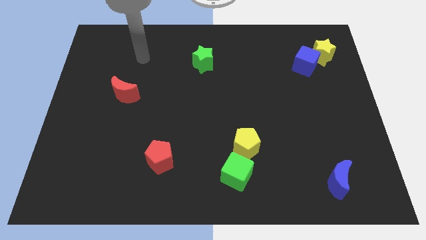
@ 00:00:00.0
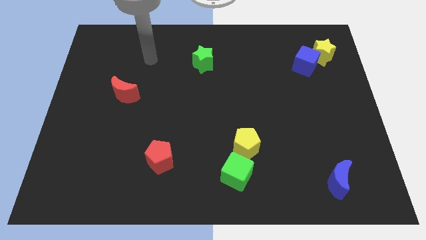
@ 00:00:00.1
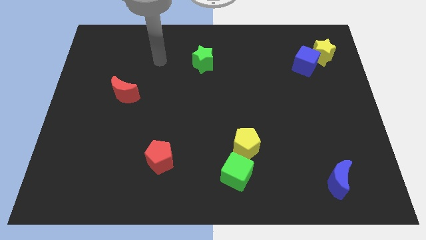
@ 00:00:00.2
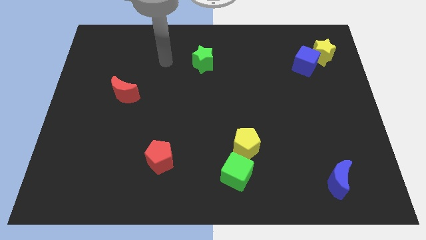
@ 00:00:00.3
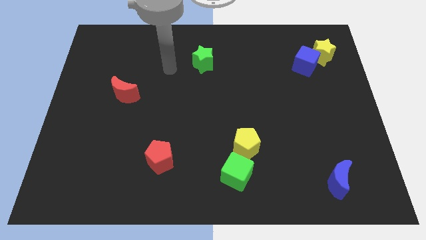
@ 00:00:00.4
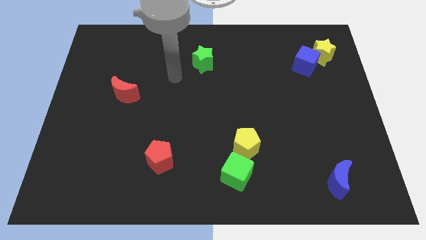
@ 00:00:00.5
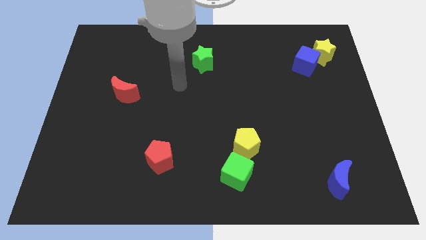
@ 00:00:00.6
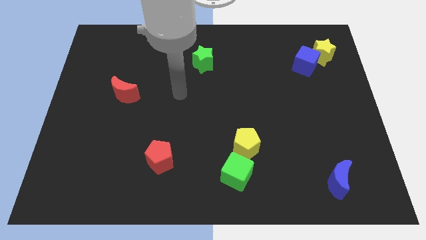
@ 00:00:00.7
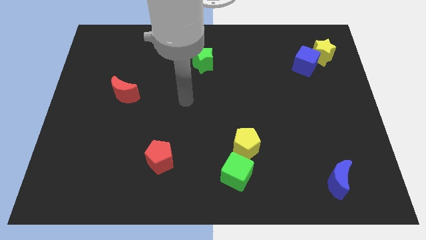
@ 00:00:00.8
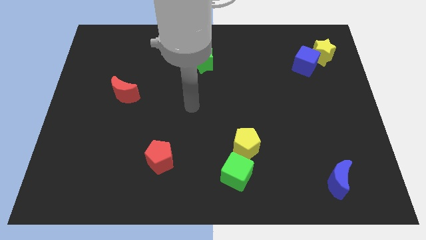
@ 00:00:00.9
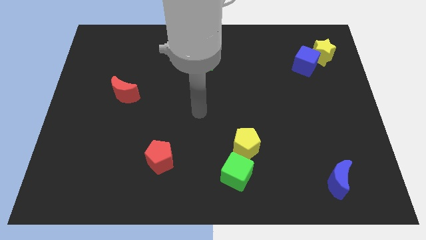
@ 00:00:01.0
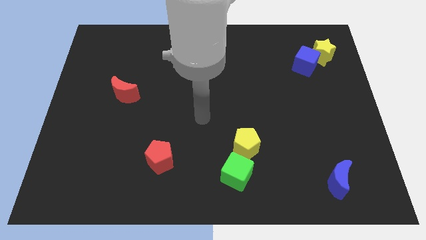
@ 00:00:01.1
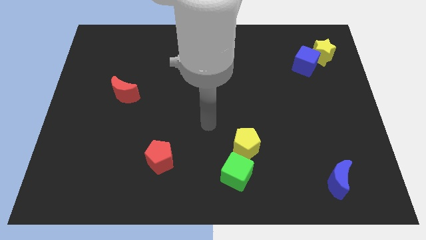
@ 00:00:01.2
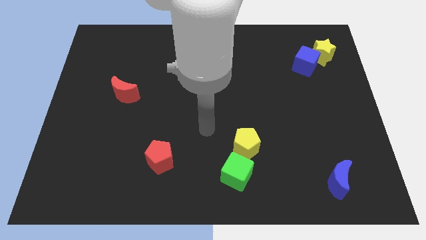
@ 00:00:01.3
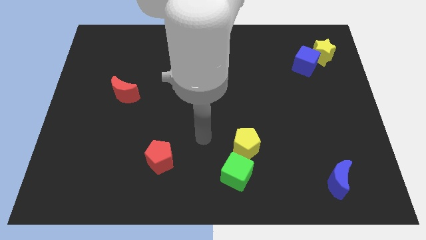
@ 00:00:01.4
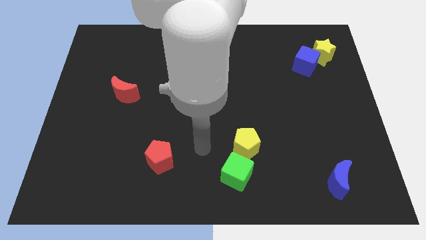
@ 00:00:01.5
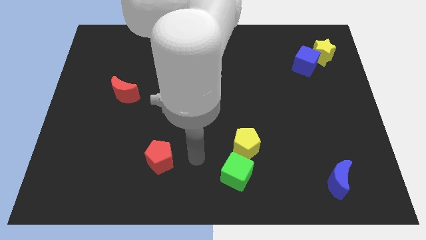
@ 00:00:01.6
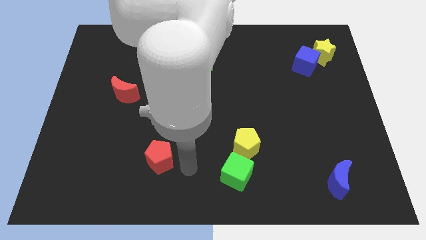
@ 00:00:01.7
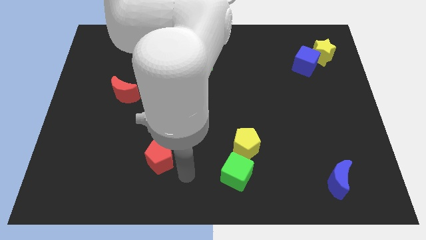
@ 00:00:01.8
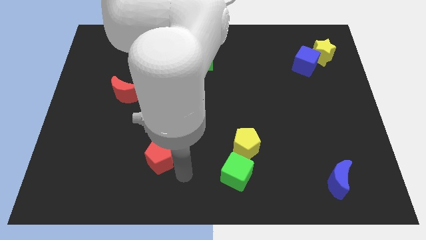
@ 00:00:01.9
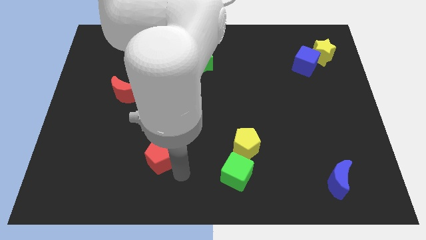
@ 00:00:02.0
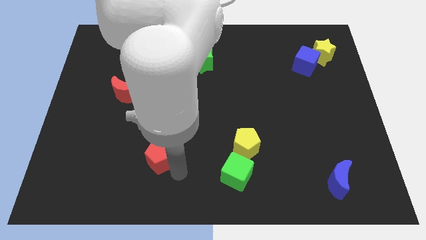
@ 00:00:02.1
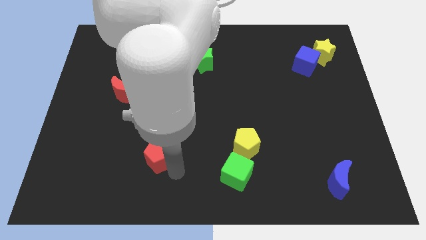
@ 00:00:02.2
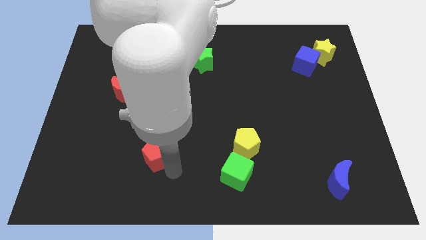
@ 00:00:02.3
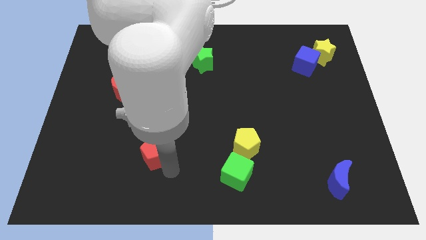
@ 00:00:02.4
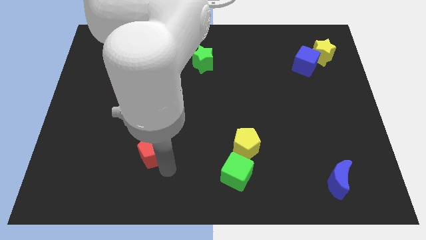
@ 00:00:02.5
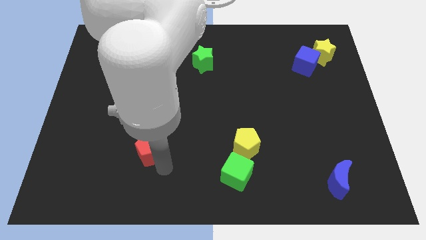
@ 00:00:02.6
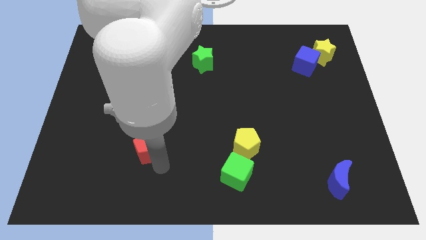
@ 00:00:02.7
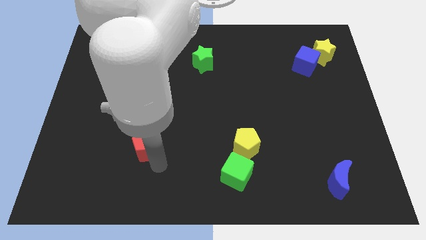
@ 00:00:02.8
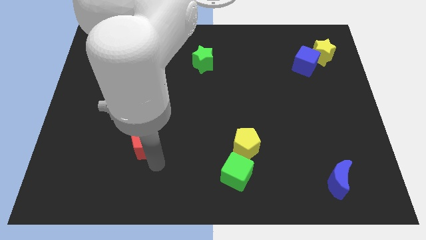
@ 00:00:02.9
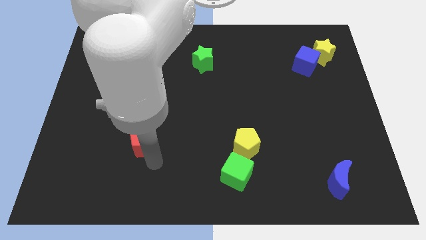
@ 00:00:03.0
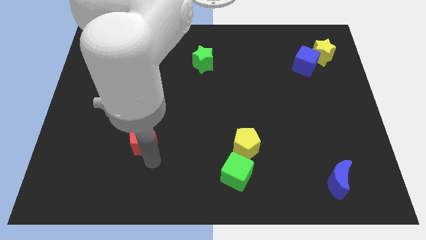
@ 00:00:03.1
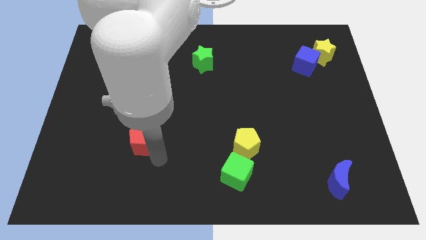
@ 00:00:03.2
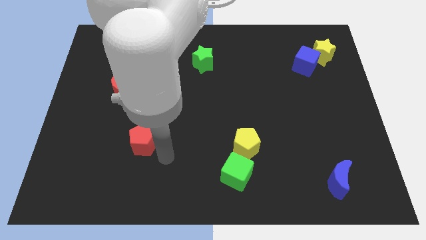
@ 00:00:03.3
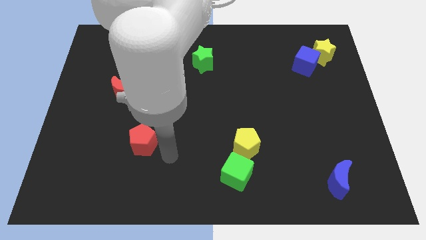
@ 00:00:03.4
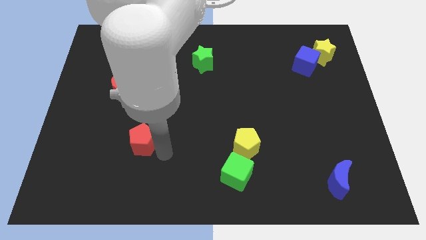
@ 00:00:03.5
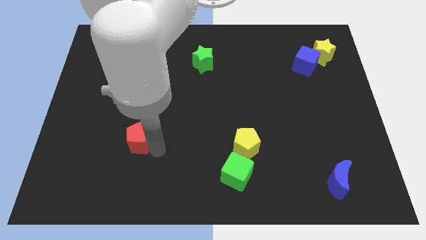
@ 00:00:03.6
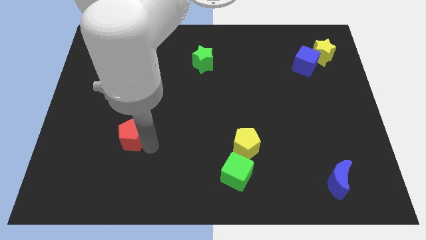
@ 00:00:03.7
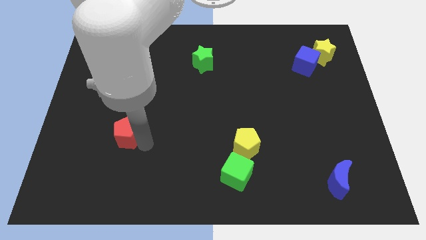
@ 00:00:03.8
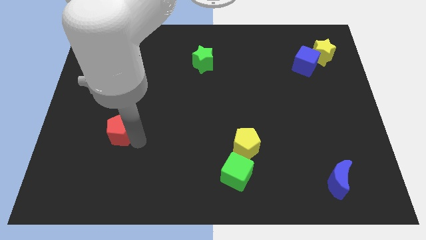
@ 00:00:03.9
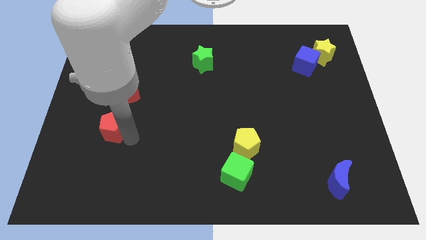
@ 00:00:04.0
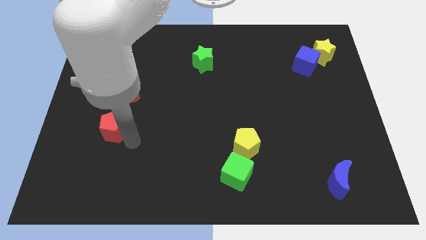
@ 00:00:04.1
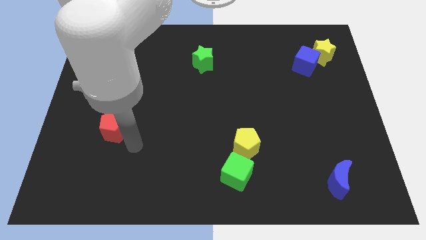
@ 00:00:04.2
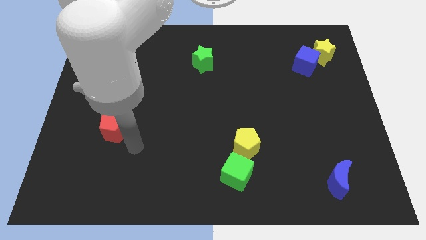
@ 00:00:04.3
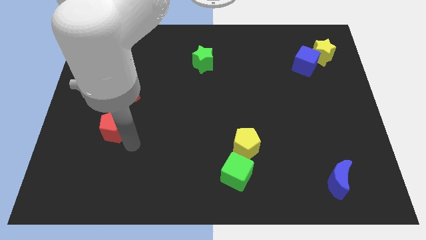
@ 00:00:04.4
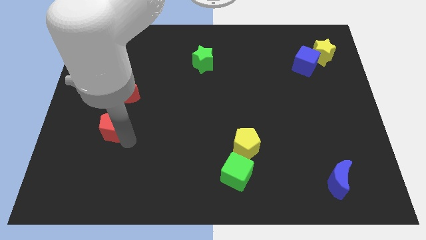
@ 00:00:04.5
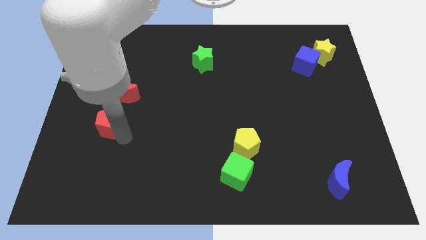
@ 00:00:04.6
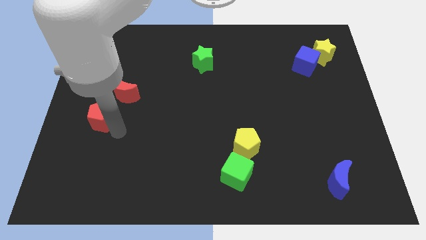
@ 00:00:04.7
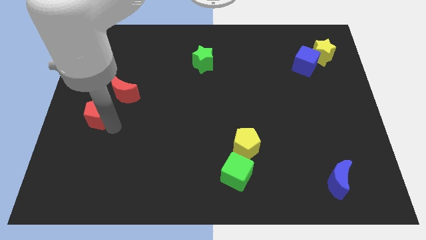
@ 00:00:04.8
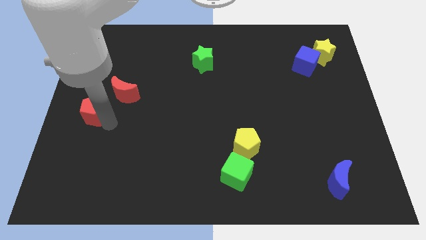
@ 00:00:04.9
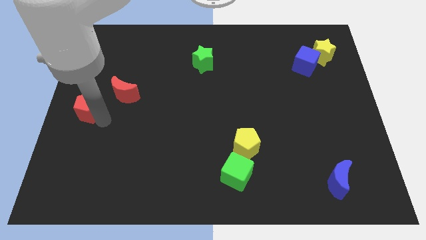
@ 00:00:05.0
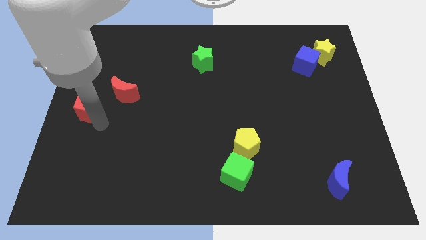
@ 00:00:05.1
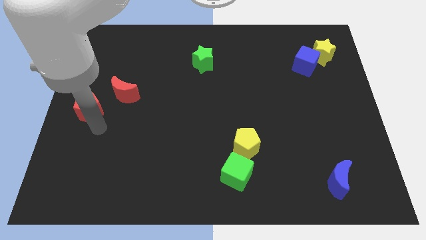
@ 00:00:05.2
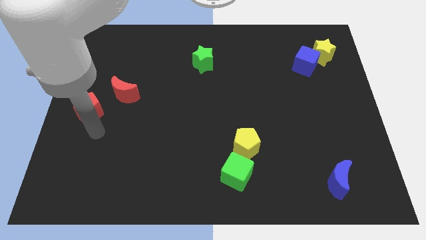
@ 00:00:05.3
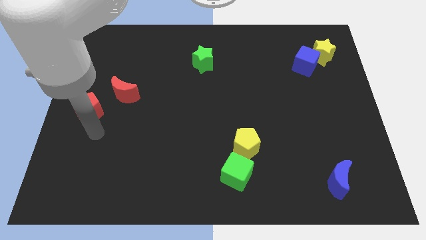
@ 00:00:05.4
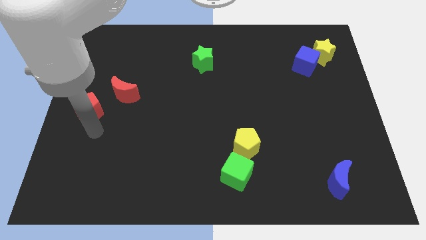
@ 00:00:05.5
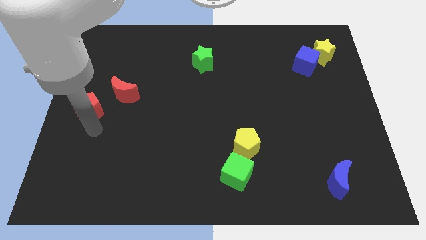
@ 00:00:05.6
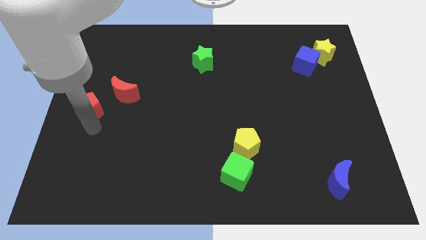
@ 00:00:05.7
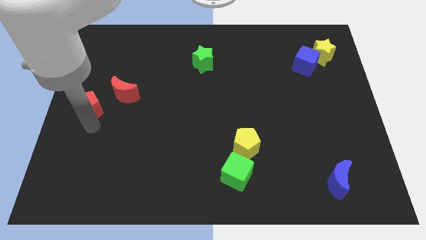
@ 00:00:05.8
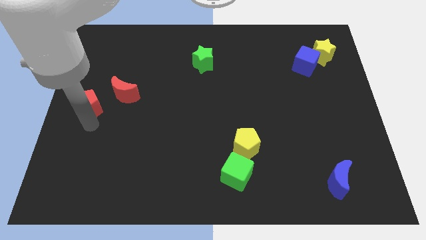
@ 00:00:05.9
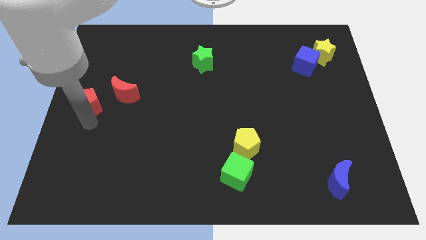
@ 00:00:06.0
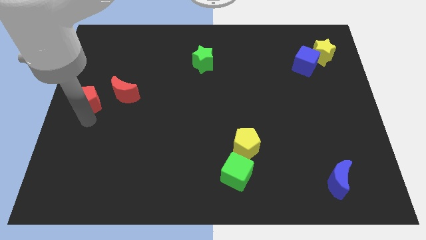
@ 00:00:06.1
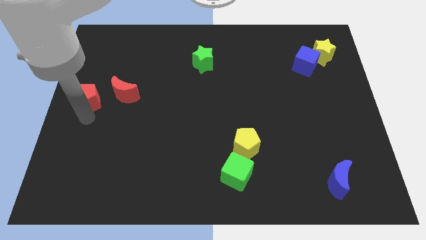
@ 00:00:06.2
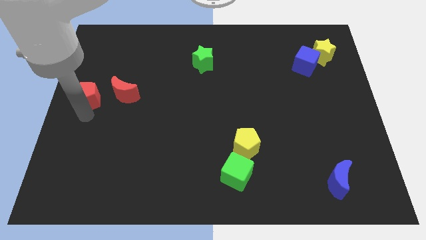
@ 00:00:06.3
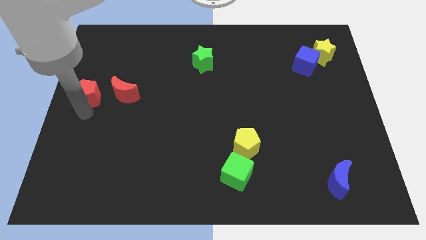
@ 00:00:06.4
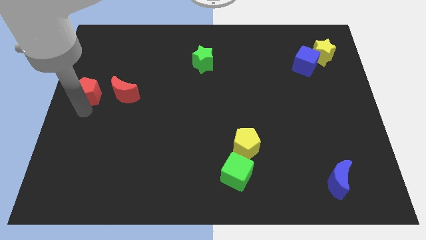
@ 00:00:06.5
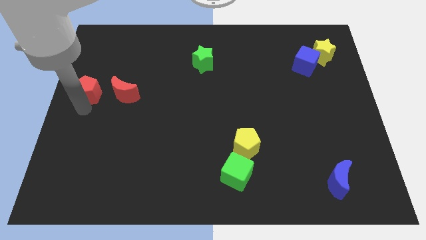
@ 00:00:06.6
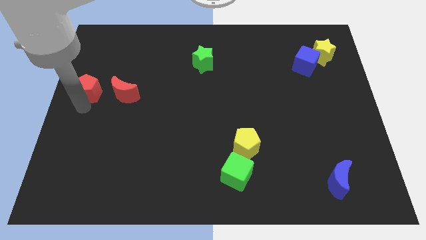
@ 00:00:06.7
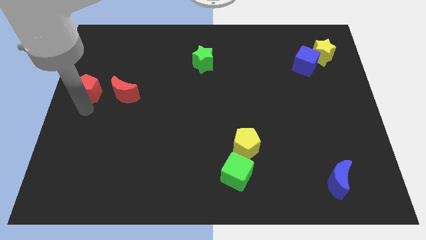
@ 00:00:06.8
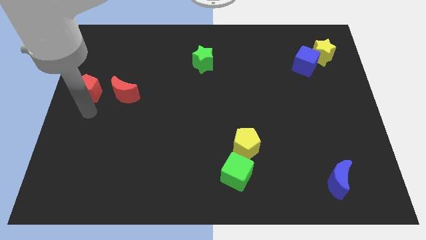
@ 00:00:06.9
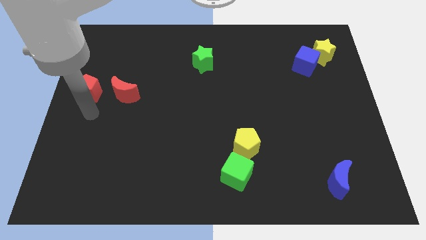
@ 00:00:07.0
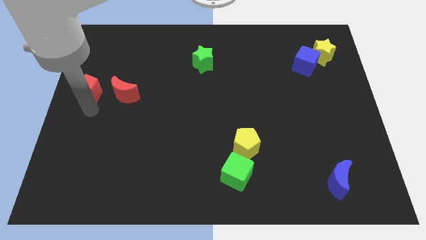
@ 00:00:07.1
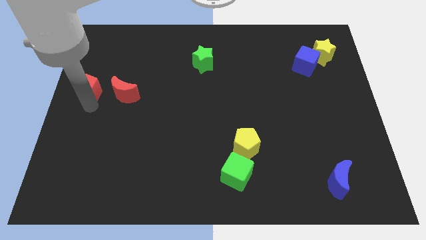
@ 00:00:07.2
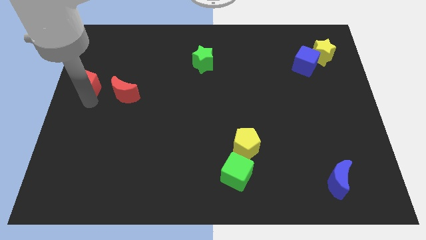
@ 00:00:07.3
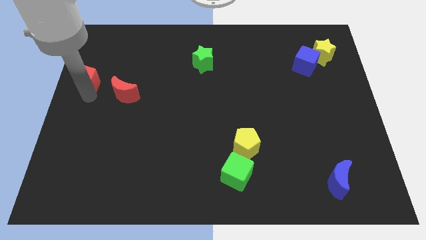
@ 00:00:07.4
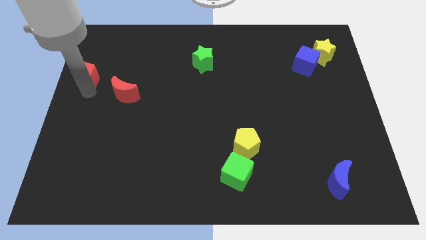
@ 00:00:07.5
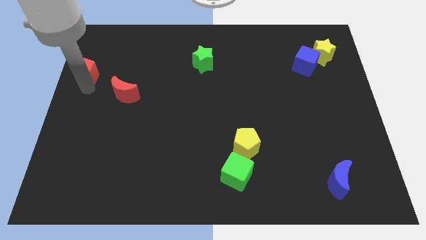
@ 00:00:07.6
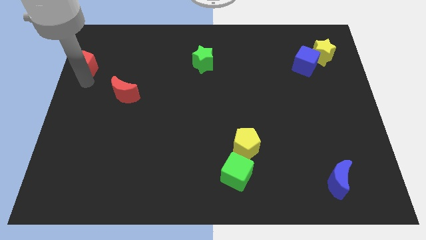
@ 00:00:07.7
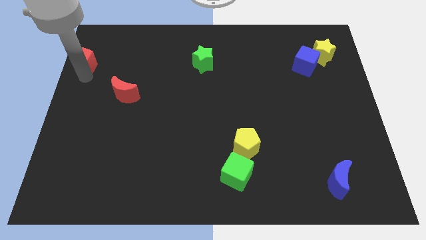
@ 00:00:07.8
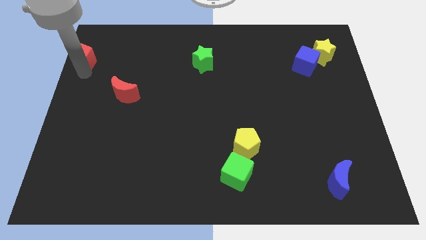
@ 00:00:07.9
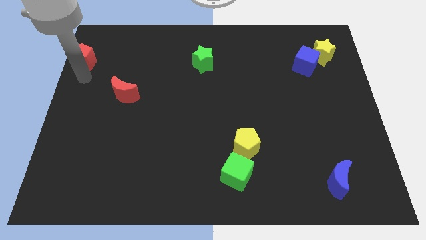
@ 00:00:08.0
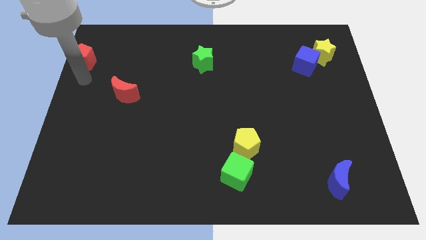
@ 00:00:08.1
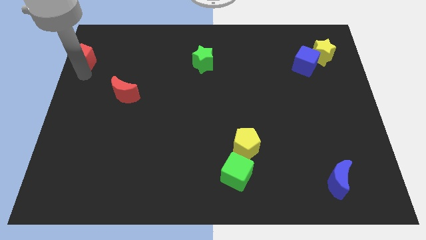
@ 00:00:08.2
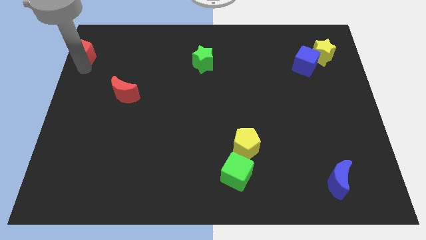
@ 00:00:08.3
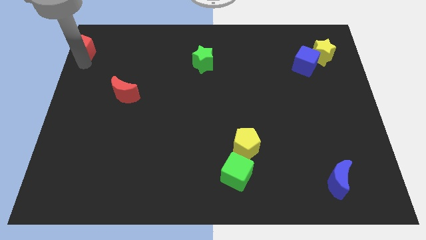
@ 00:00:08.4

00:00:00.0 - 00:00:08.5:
push the red pentagon to the top left of the board
